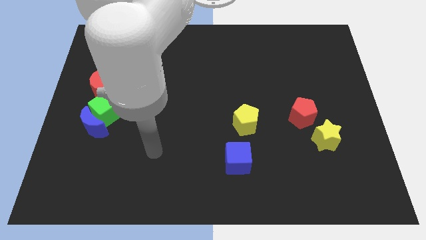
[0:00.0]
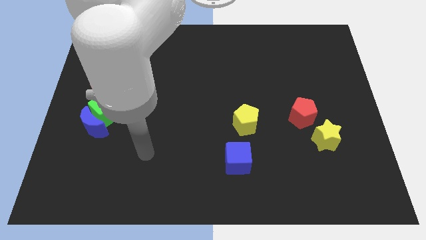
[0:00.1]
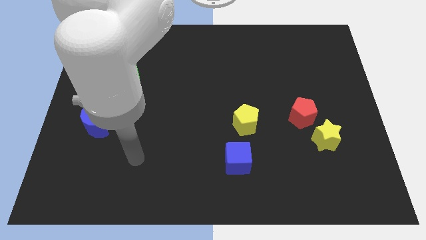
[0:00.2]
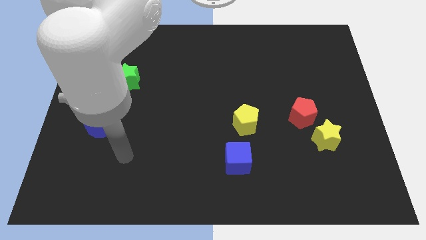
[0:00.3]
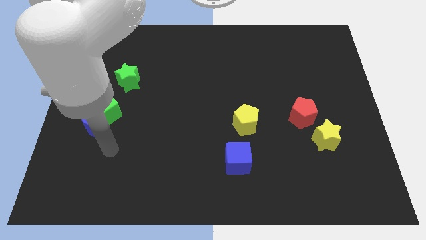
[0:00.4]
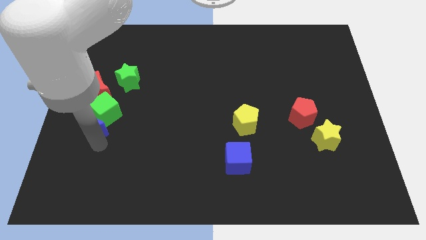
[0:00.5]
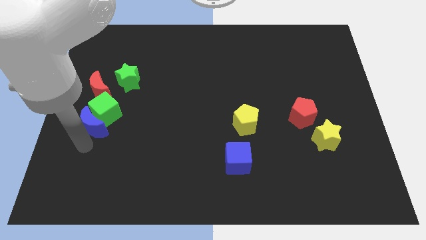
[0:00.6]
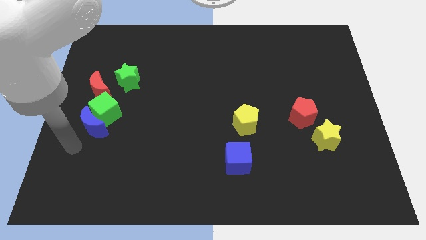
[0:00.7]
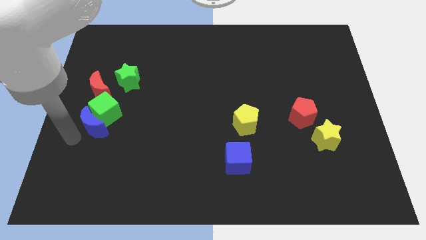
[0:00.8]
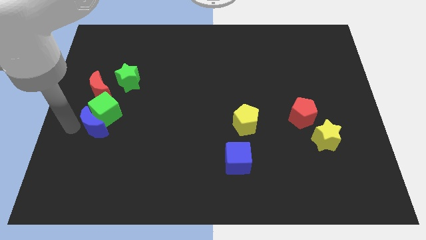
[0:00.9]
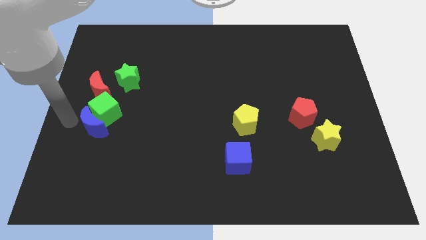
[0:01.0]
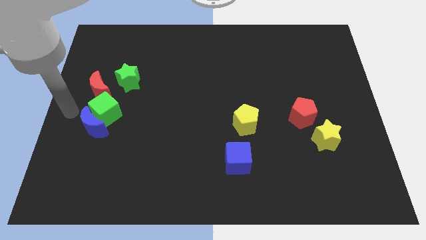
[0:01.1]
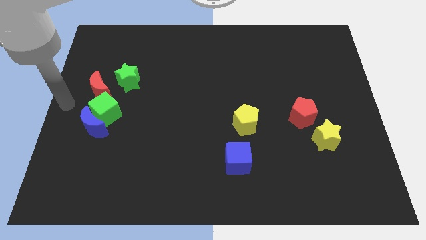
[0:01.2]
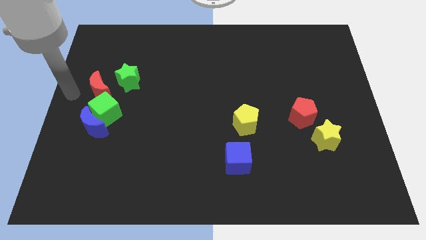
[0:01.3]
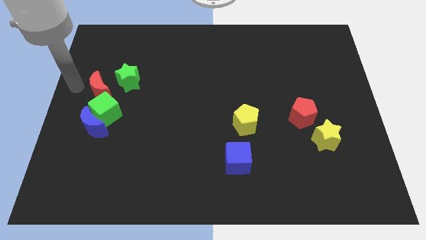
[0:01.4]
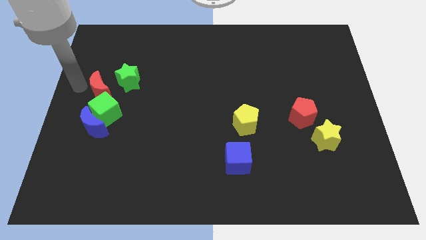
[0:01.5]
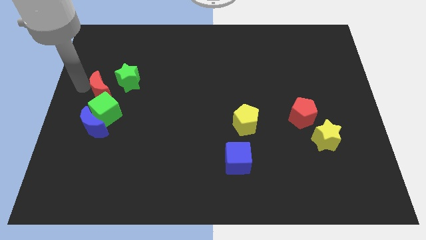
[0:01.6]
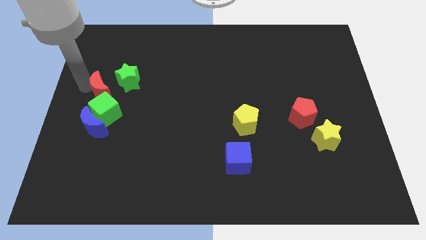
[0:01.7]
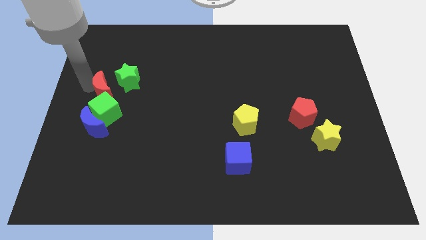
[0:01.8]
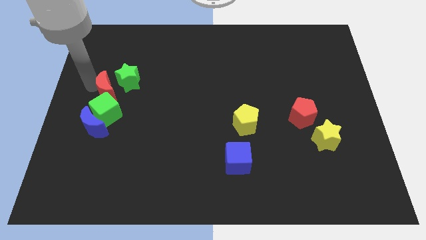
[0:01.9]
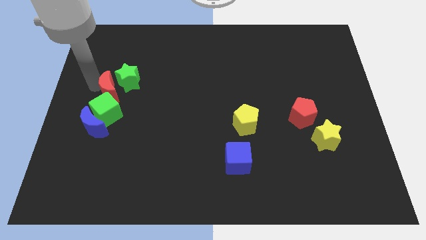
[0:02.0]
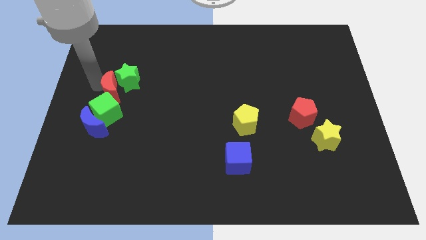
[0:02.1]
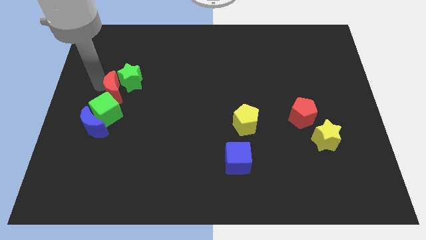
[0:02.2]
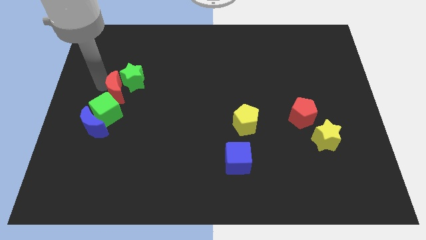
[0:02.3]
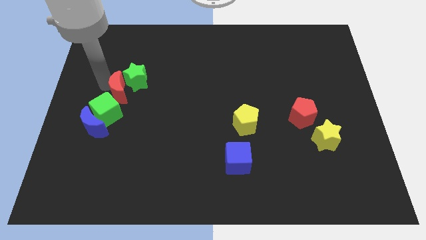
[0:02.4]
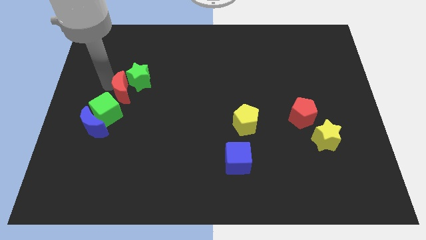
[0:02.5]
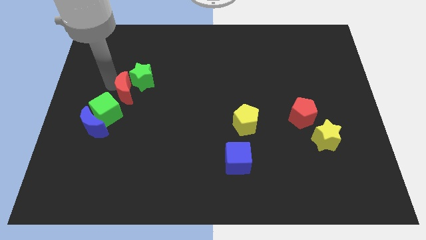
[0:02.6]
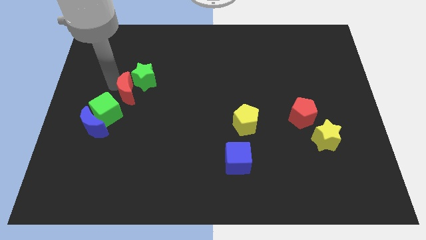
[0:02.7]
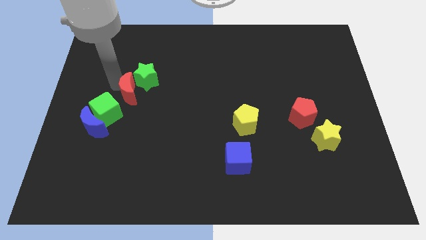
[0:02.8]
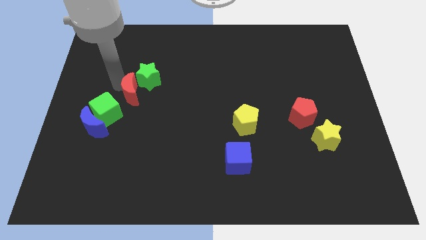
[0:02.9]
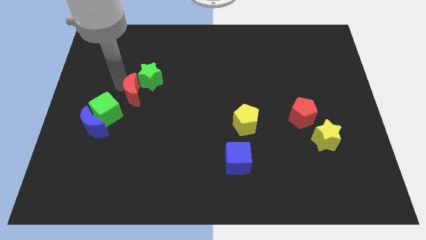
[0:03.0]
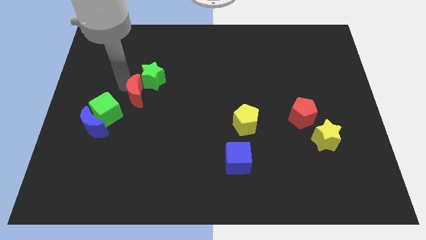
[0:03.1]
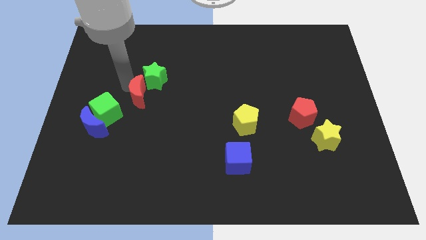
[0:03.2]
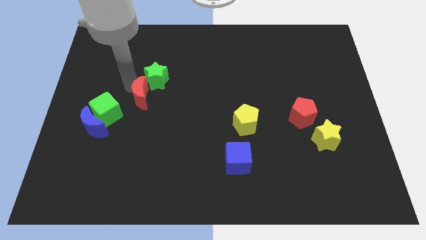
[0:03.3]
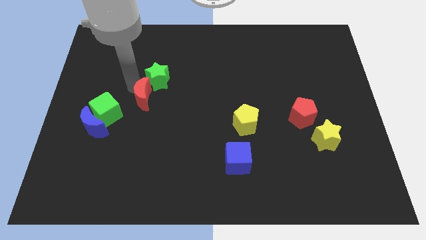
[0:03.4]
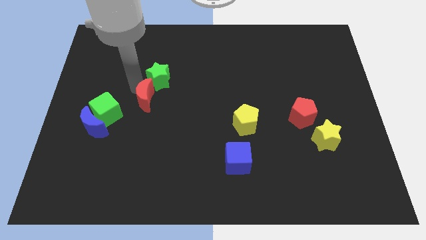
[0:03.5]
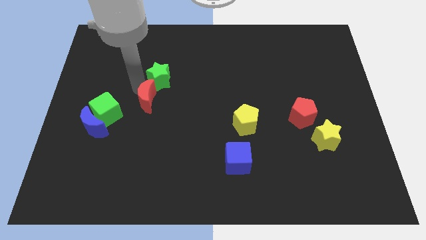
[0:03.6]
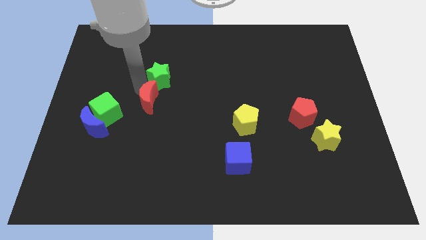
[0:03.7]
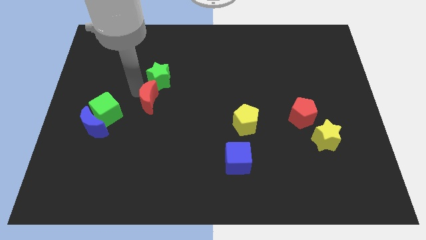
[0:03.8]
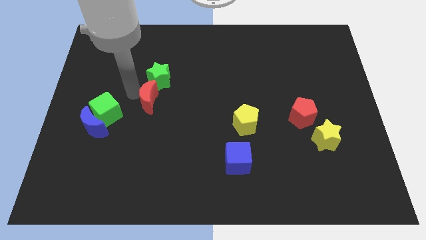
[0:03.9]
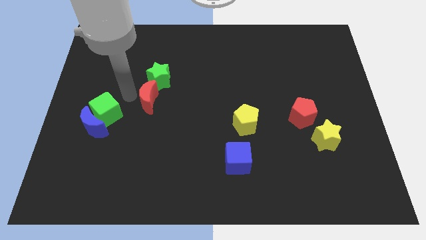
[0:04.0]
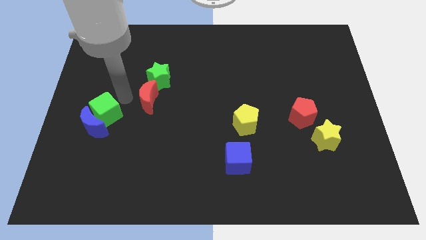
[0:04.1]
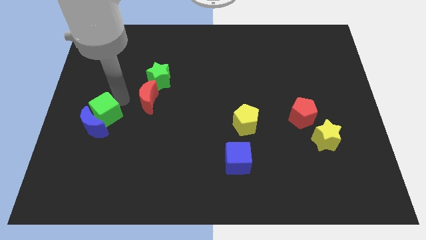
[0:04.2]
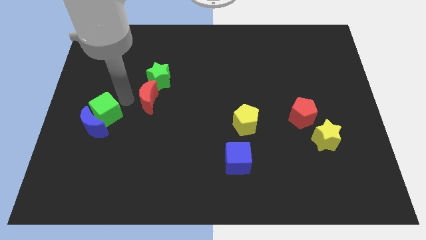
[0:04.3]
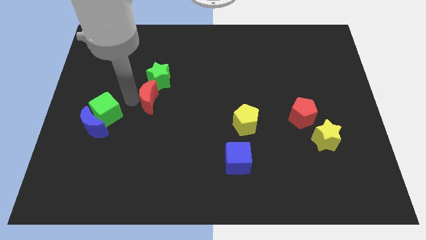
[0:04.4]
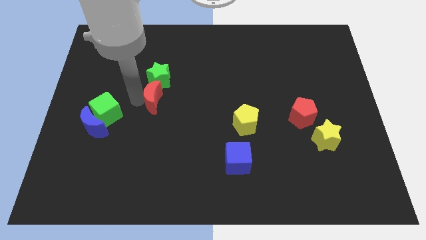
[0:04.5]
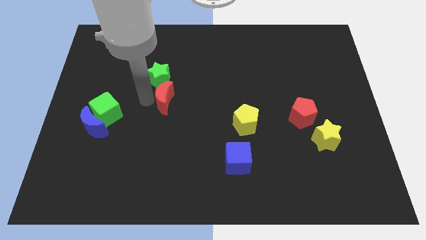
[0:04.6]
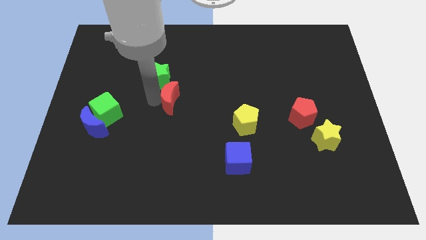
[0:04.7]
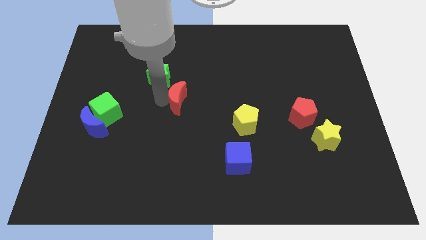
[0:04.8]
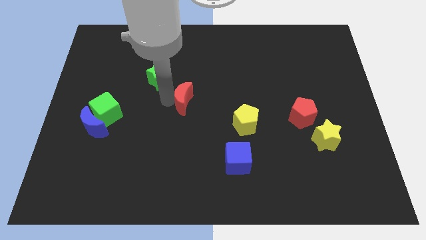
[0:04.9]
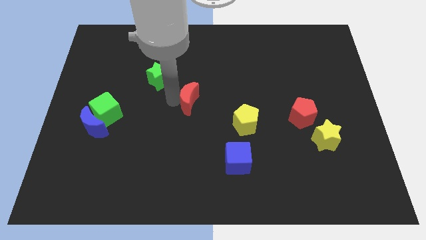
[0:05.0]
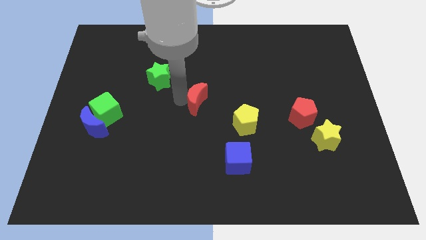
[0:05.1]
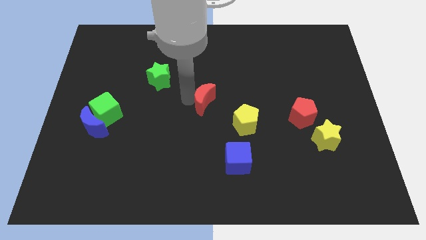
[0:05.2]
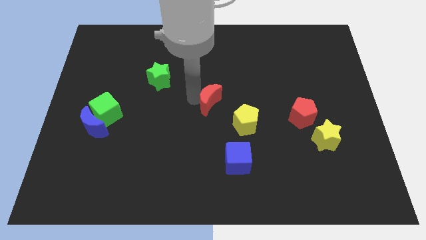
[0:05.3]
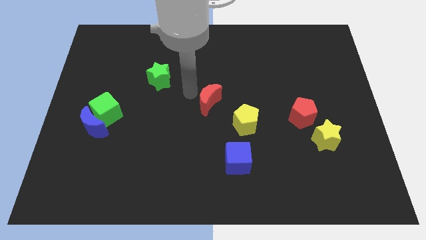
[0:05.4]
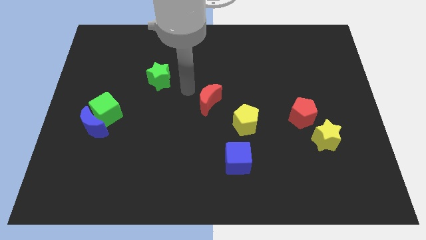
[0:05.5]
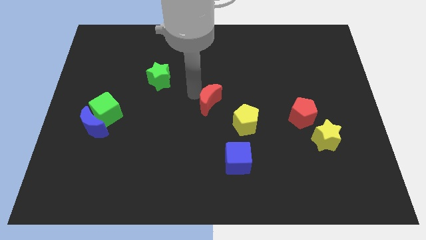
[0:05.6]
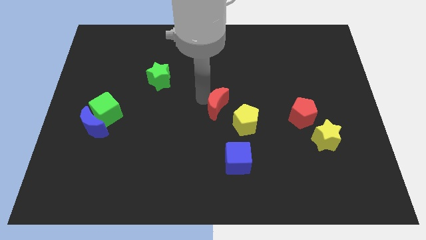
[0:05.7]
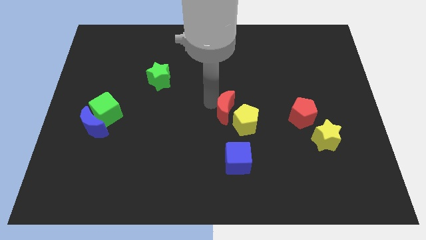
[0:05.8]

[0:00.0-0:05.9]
move the red moon to the yellow pentagon

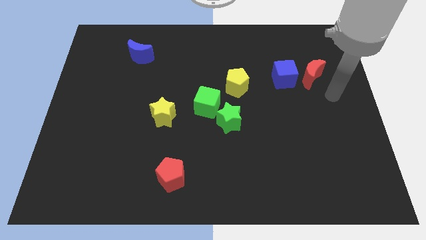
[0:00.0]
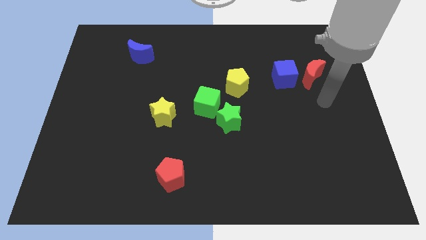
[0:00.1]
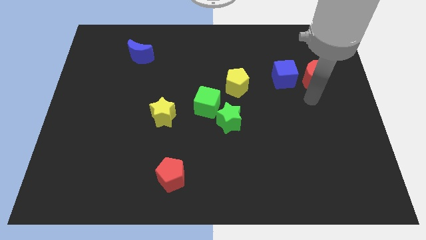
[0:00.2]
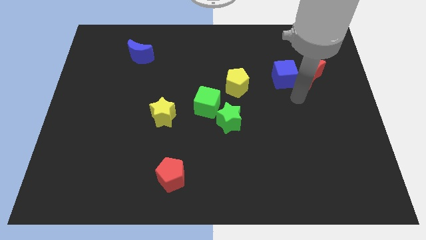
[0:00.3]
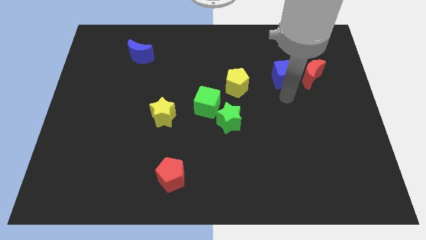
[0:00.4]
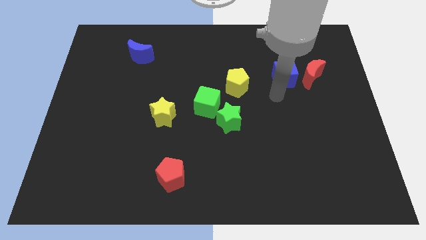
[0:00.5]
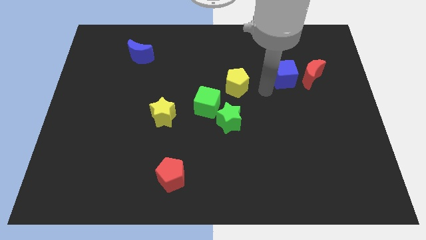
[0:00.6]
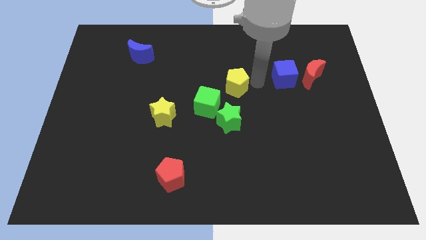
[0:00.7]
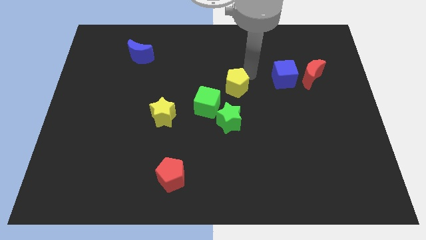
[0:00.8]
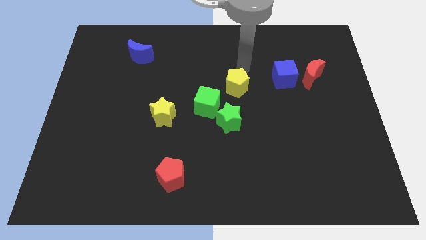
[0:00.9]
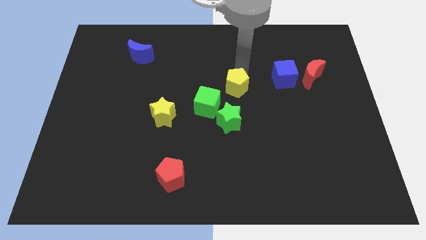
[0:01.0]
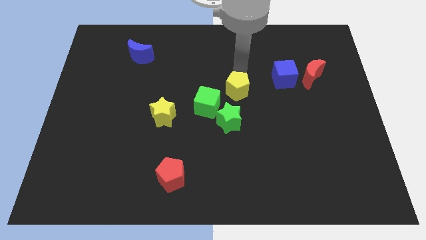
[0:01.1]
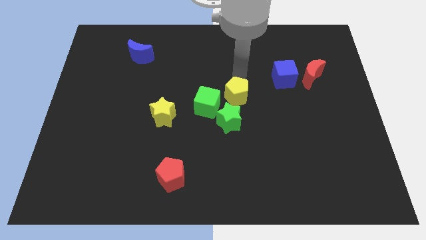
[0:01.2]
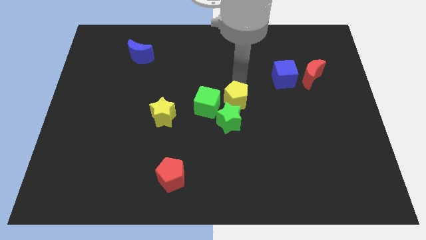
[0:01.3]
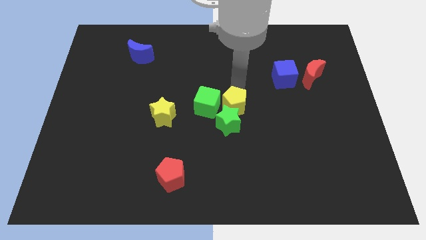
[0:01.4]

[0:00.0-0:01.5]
slide the yellow pentagon towards the green star

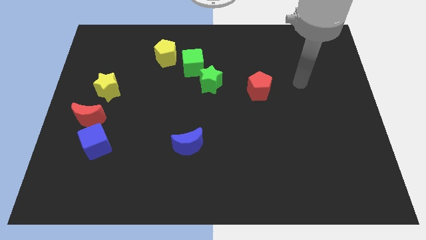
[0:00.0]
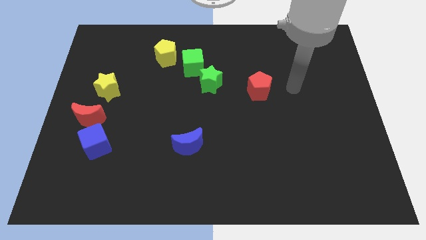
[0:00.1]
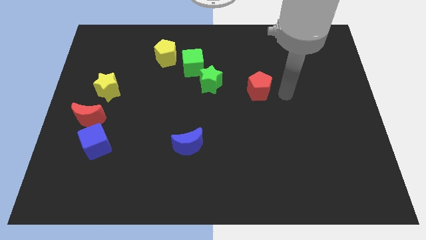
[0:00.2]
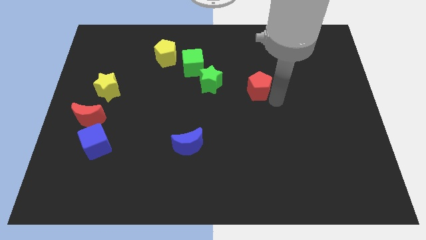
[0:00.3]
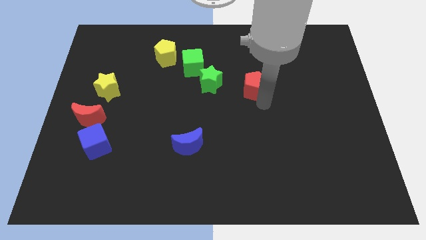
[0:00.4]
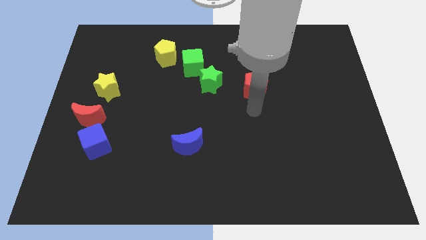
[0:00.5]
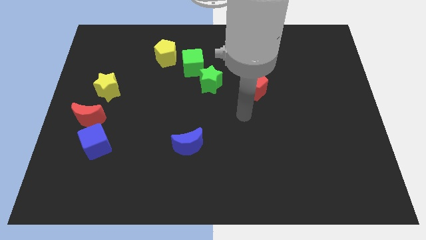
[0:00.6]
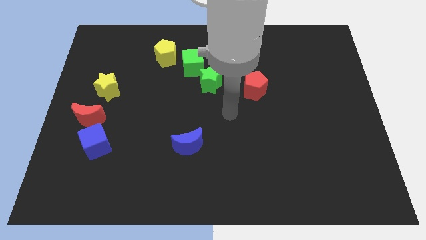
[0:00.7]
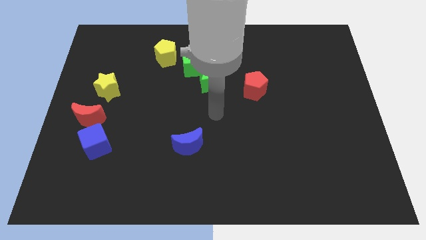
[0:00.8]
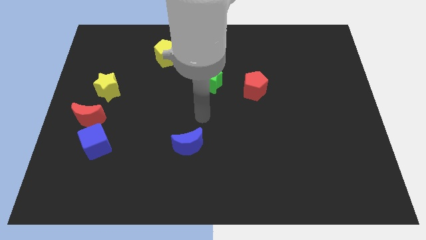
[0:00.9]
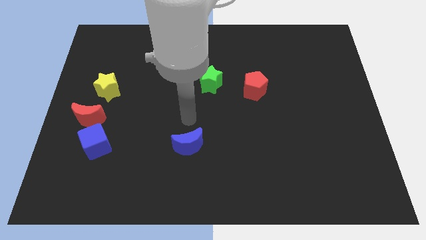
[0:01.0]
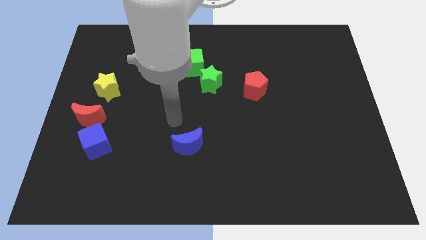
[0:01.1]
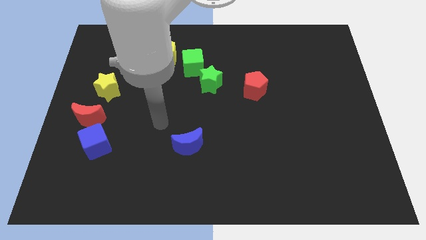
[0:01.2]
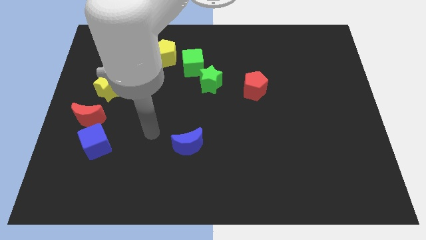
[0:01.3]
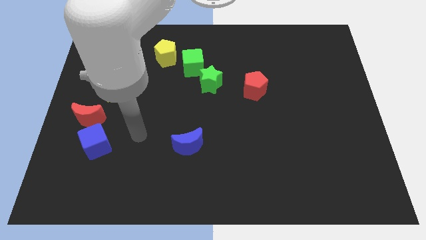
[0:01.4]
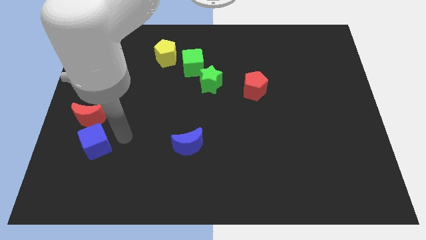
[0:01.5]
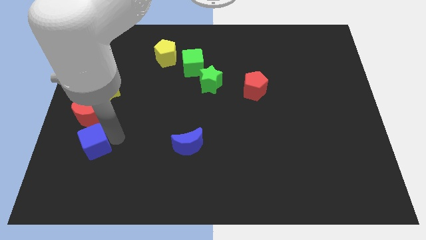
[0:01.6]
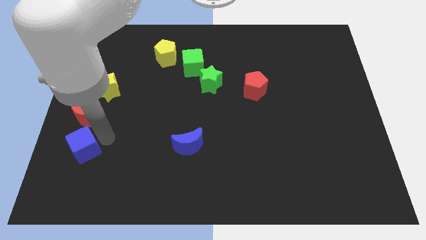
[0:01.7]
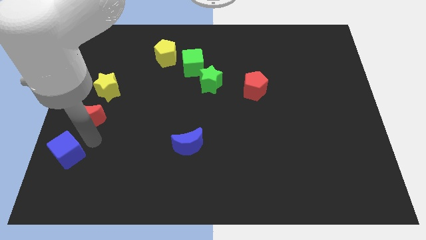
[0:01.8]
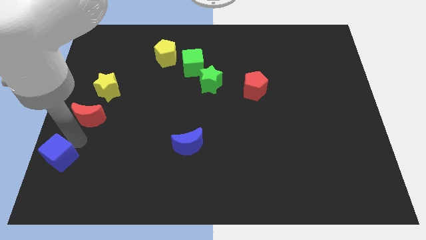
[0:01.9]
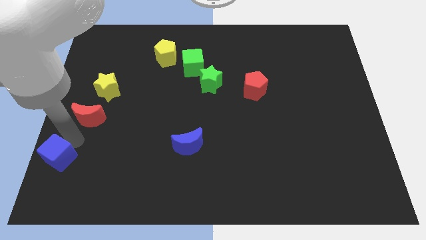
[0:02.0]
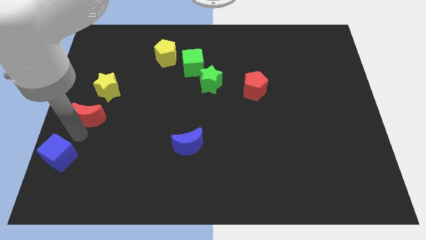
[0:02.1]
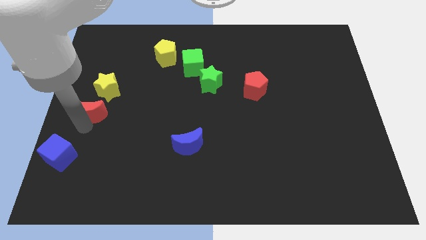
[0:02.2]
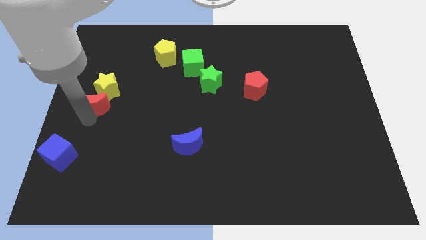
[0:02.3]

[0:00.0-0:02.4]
push the red moon towards the yellow star
